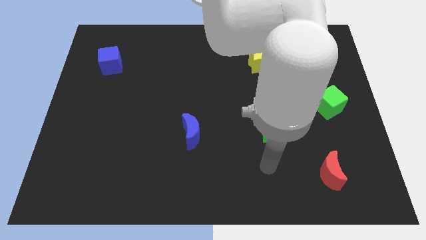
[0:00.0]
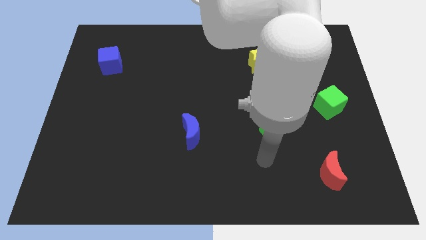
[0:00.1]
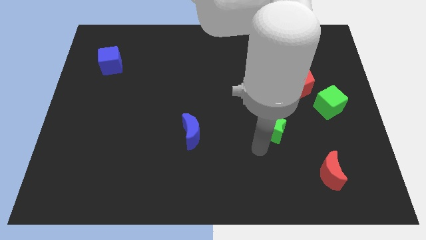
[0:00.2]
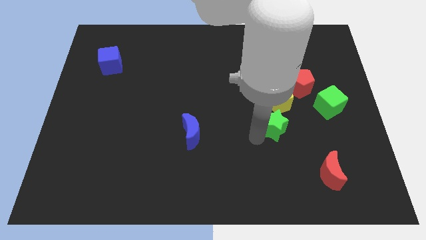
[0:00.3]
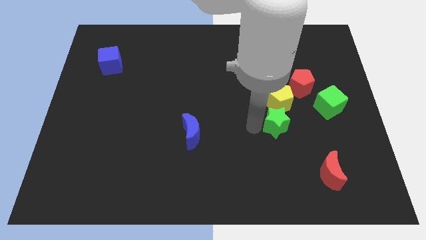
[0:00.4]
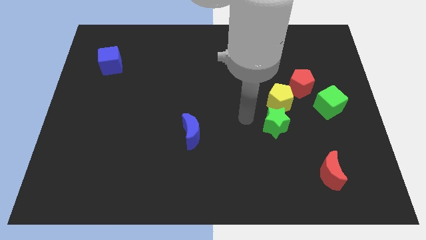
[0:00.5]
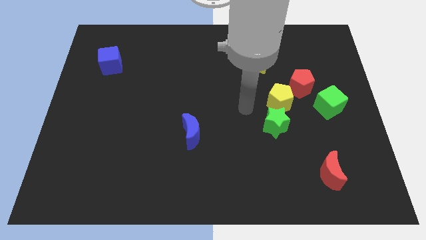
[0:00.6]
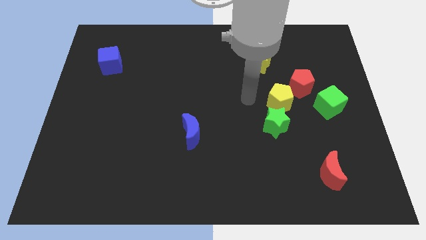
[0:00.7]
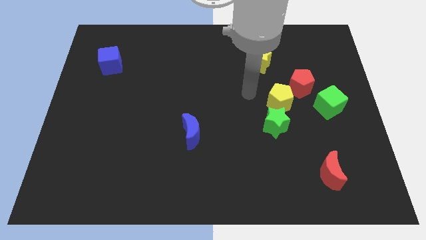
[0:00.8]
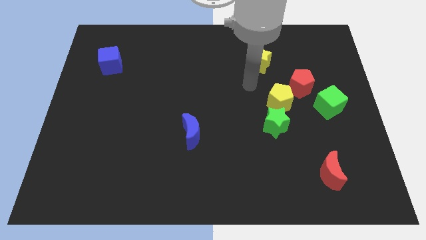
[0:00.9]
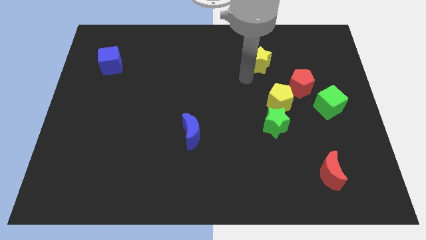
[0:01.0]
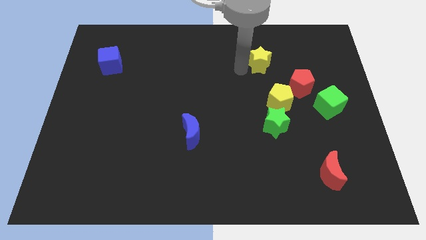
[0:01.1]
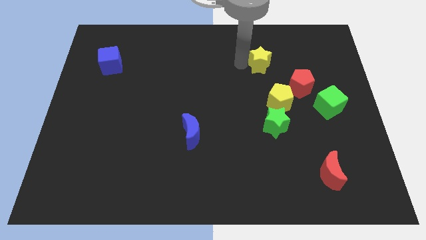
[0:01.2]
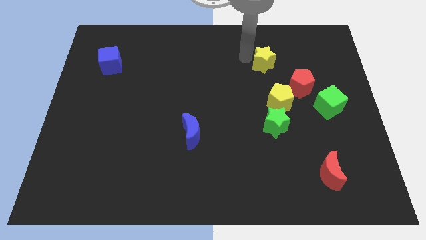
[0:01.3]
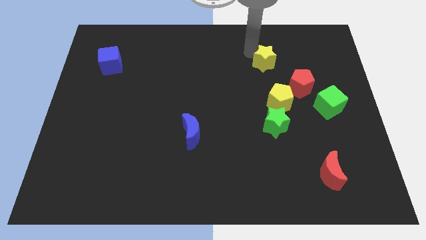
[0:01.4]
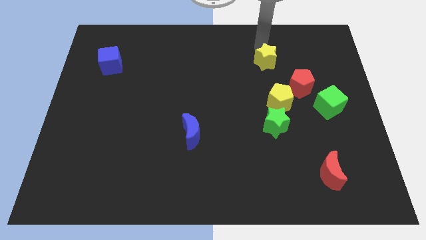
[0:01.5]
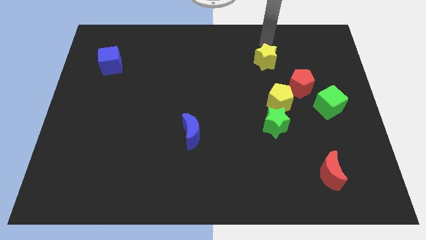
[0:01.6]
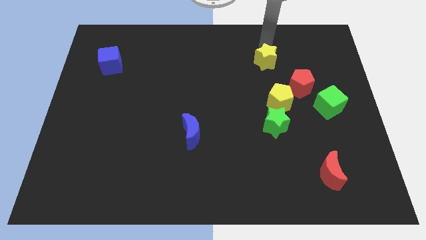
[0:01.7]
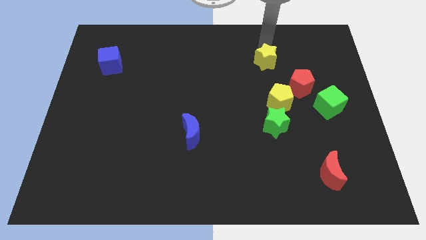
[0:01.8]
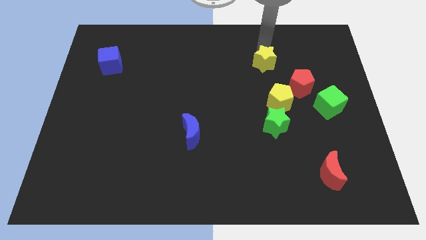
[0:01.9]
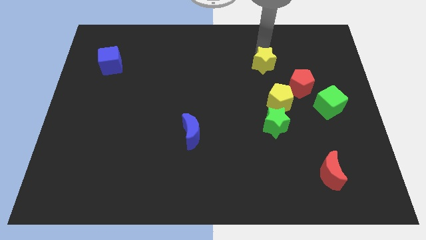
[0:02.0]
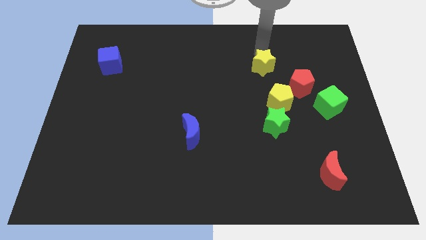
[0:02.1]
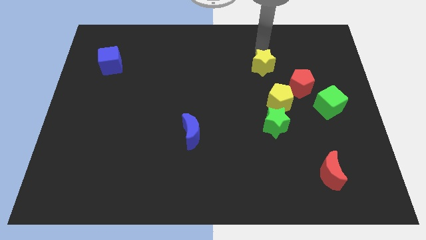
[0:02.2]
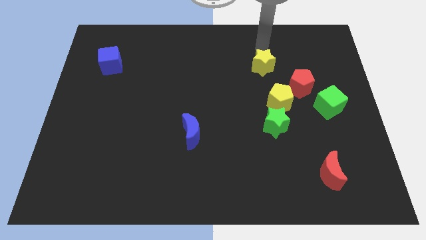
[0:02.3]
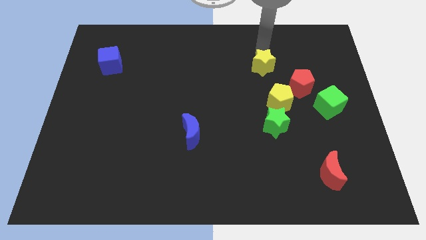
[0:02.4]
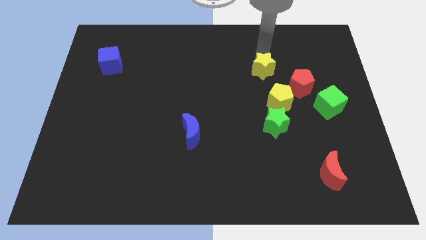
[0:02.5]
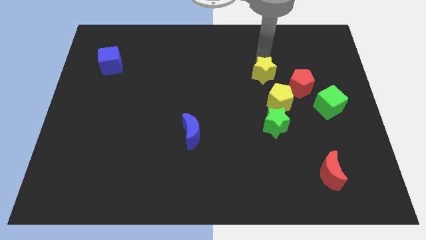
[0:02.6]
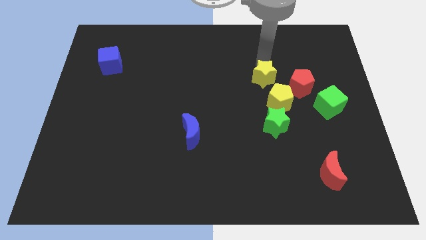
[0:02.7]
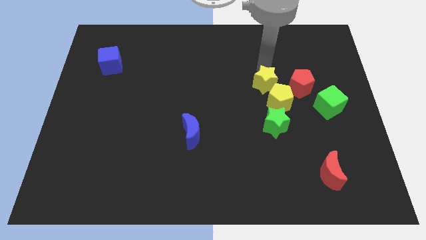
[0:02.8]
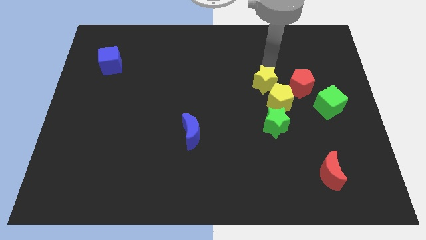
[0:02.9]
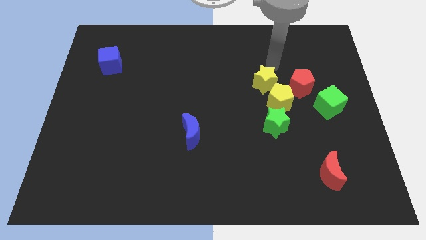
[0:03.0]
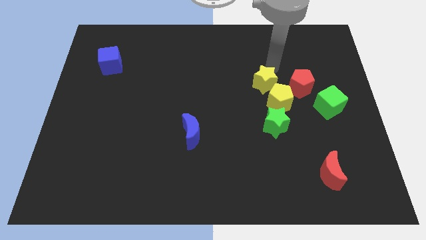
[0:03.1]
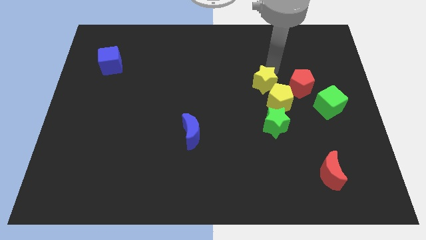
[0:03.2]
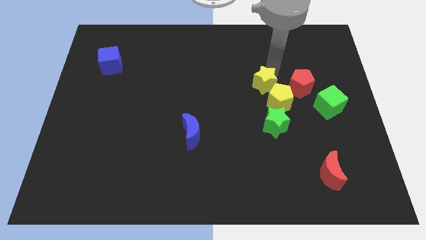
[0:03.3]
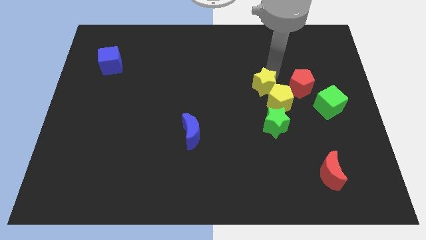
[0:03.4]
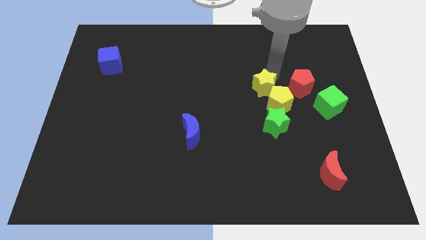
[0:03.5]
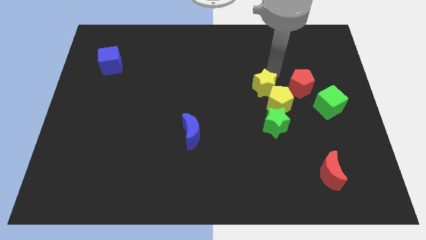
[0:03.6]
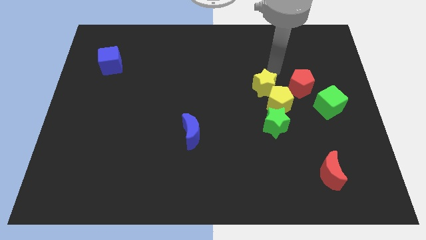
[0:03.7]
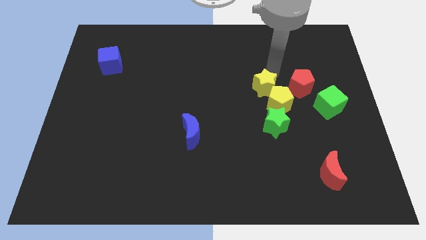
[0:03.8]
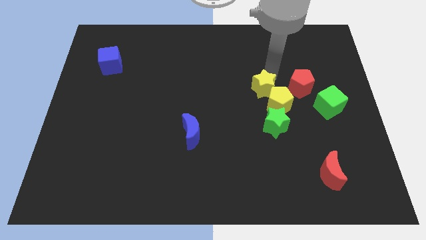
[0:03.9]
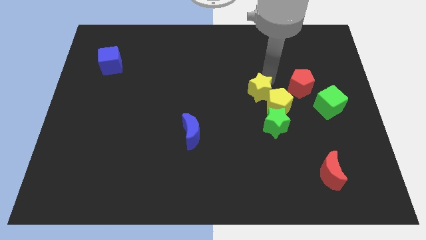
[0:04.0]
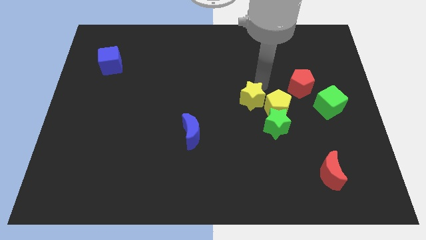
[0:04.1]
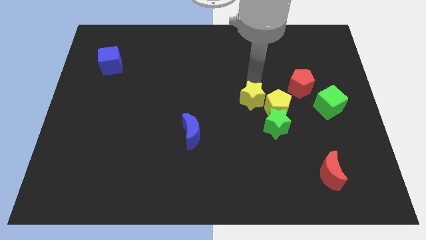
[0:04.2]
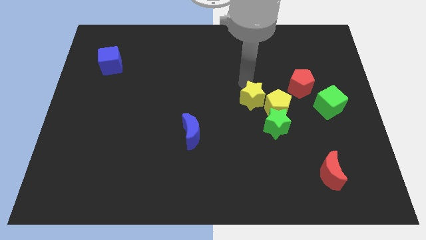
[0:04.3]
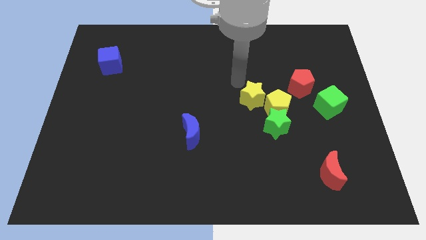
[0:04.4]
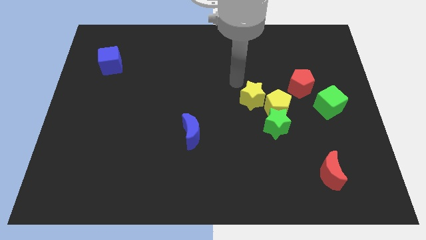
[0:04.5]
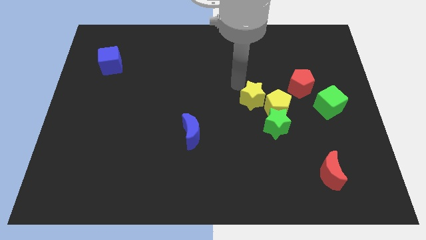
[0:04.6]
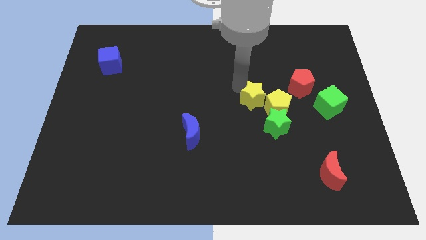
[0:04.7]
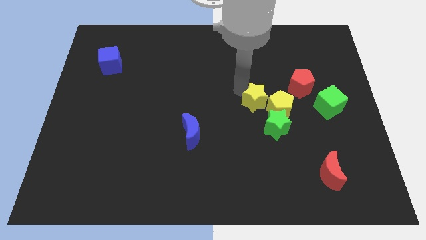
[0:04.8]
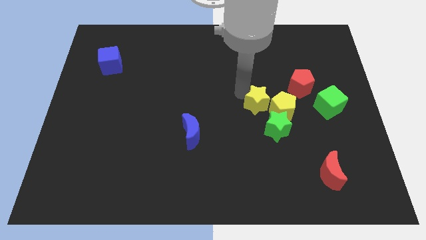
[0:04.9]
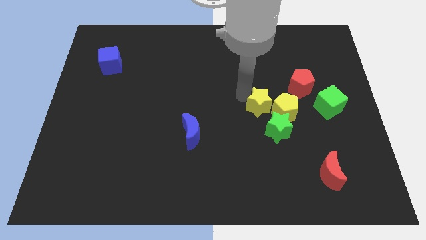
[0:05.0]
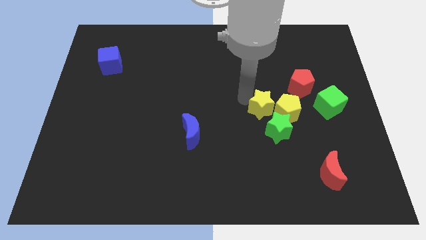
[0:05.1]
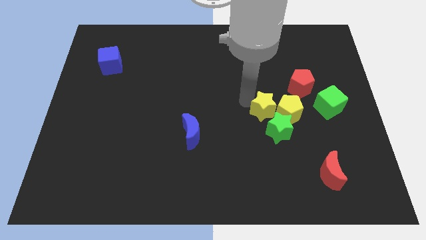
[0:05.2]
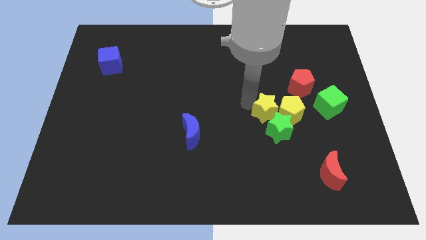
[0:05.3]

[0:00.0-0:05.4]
slide the yellow star to the green star

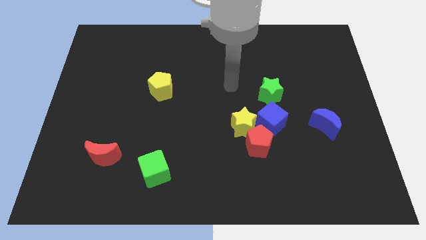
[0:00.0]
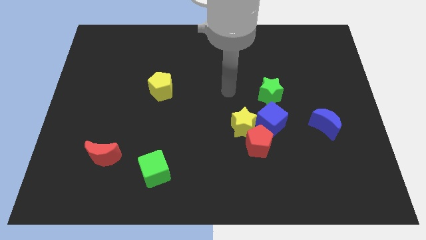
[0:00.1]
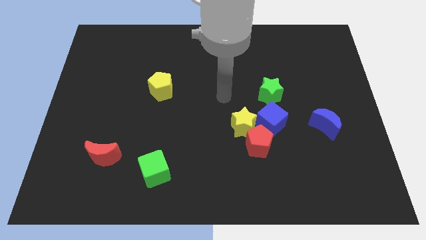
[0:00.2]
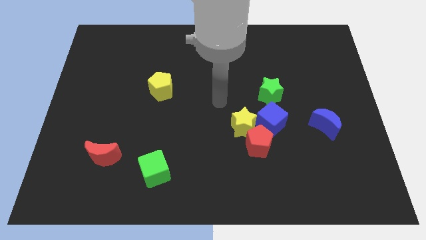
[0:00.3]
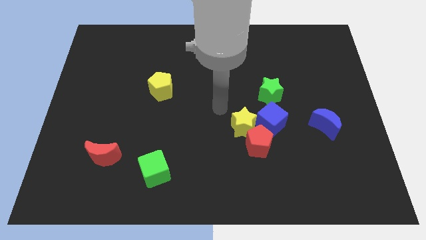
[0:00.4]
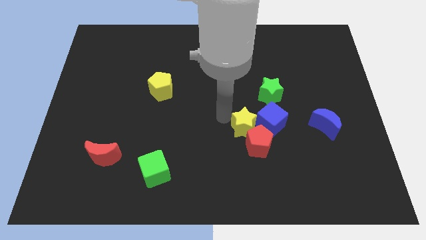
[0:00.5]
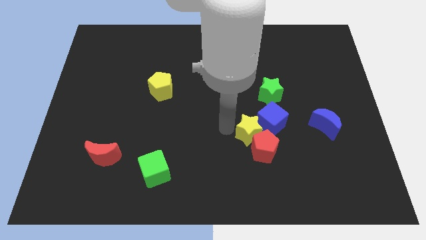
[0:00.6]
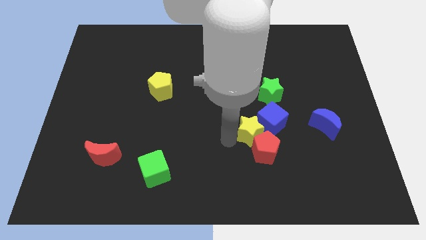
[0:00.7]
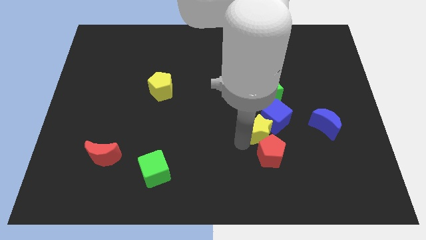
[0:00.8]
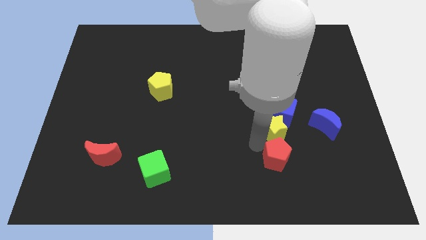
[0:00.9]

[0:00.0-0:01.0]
move the blue cube close to the green star
